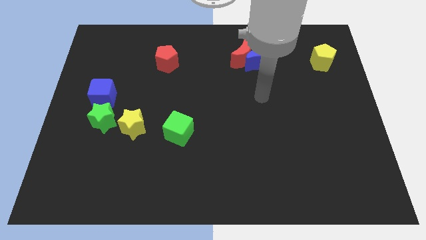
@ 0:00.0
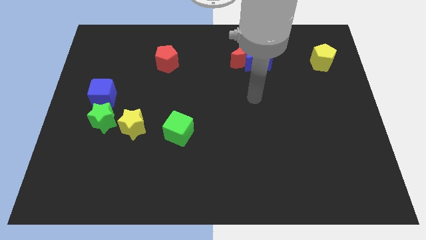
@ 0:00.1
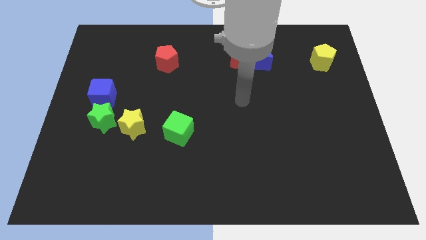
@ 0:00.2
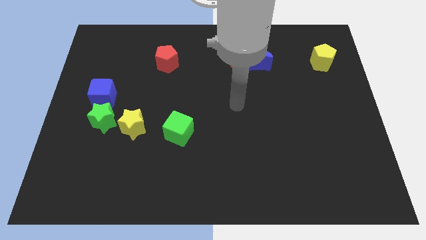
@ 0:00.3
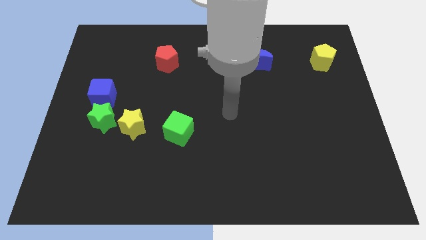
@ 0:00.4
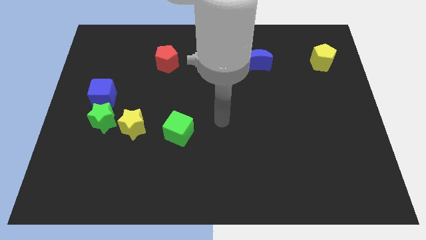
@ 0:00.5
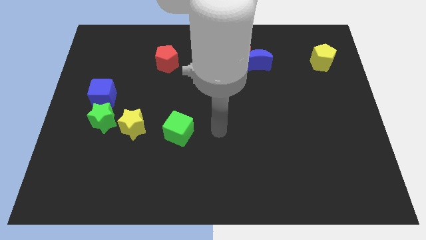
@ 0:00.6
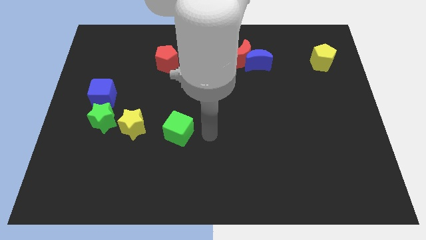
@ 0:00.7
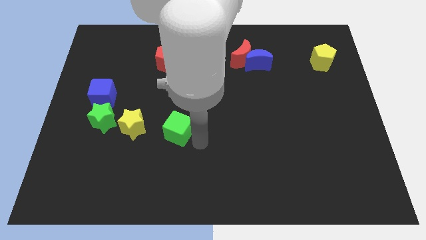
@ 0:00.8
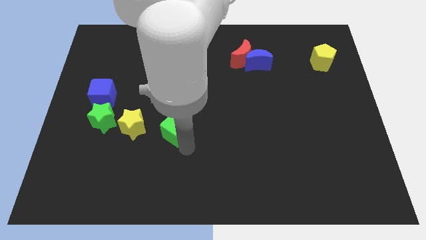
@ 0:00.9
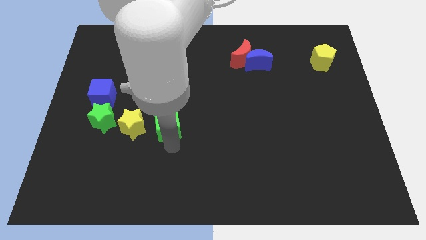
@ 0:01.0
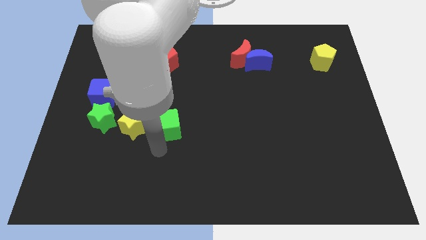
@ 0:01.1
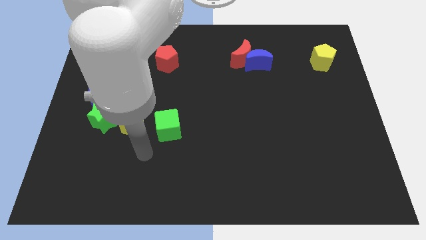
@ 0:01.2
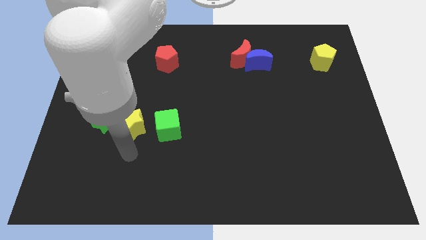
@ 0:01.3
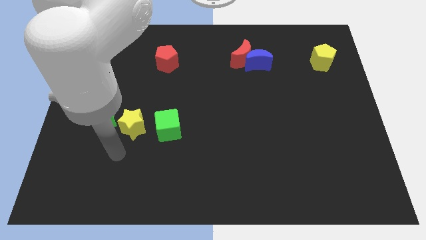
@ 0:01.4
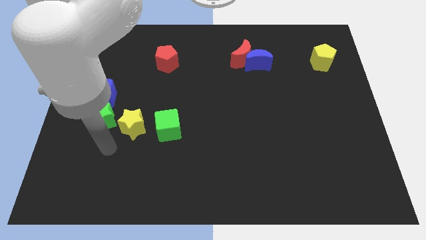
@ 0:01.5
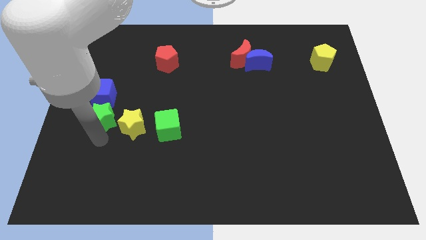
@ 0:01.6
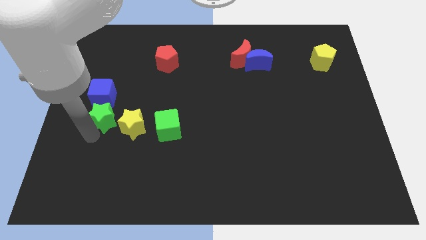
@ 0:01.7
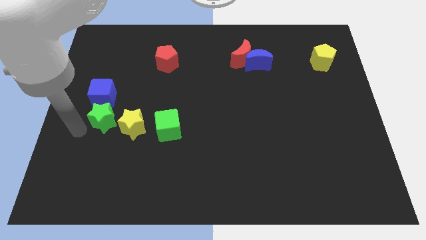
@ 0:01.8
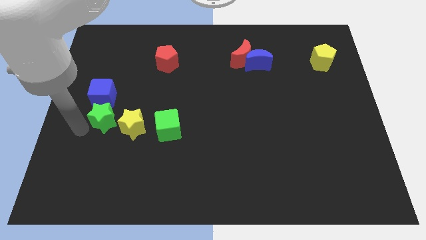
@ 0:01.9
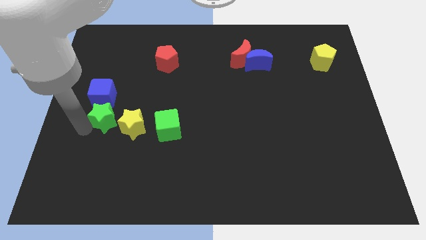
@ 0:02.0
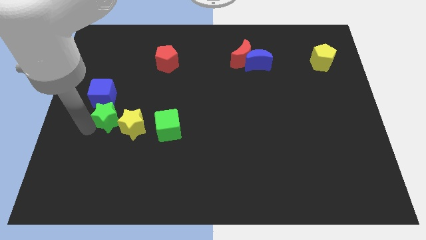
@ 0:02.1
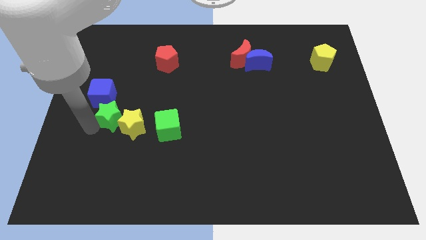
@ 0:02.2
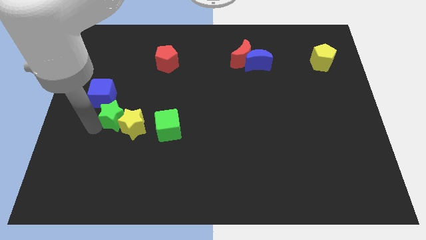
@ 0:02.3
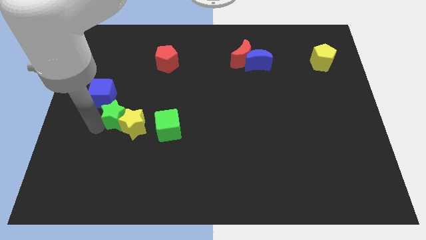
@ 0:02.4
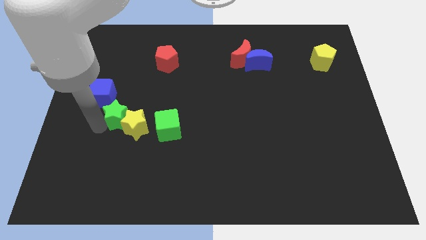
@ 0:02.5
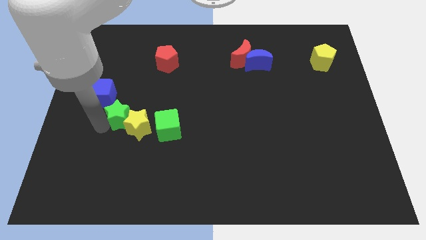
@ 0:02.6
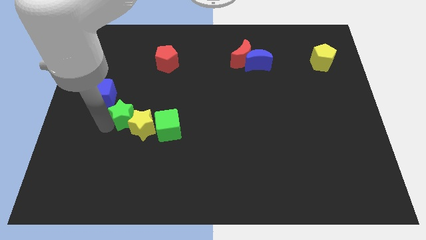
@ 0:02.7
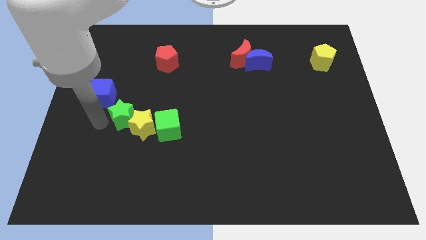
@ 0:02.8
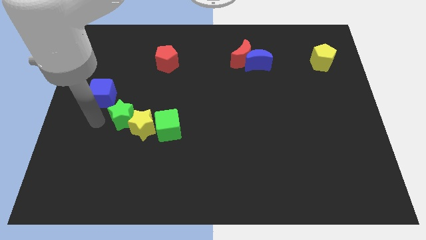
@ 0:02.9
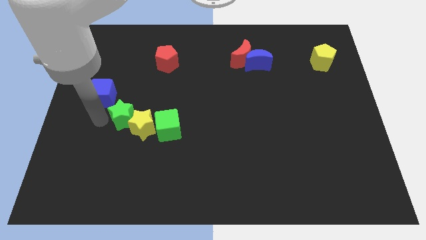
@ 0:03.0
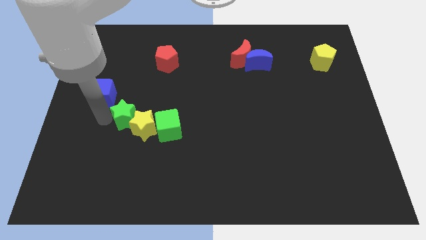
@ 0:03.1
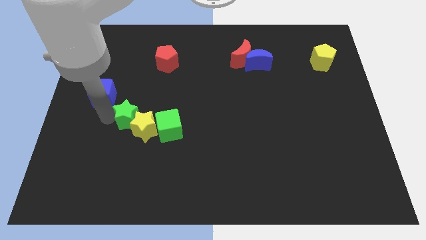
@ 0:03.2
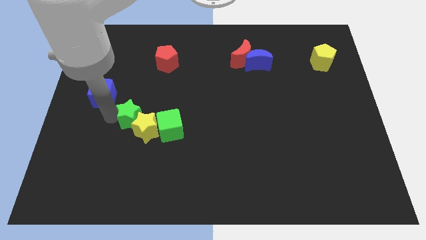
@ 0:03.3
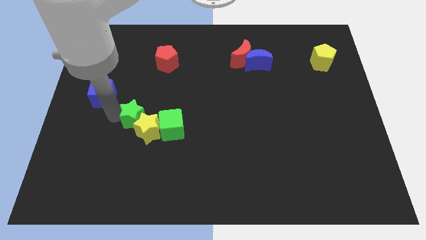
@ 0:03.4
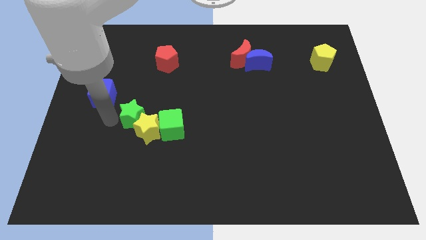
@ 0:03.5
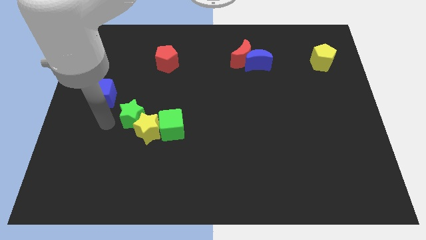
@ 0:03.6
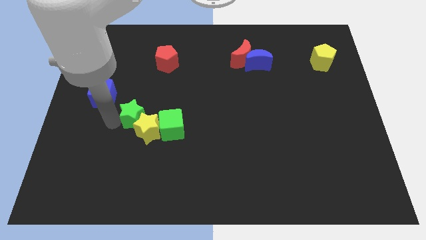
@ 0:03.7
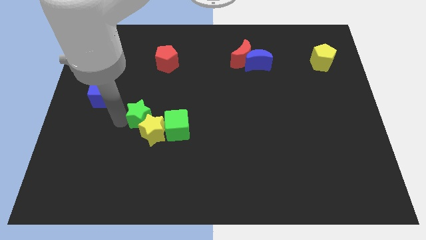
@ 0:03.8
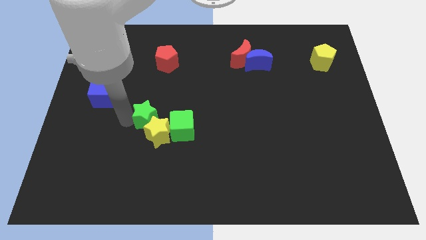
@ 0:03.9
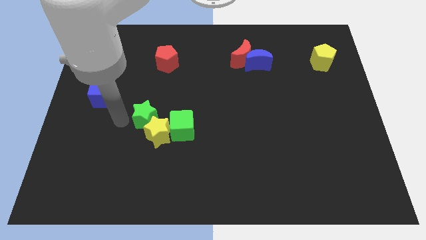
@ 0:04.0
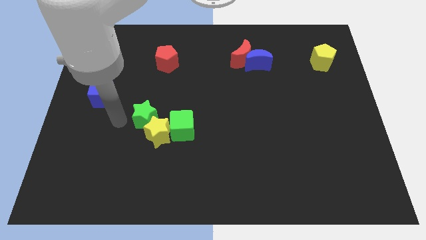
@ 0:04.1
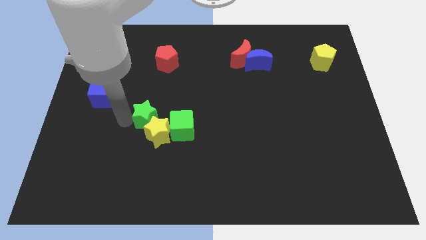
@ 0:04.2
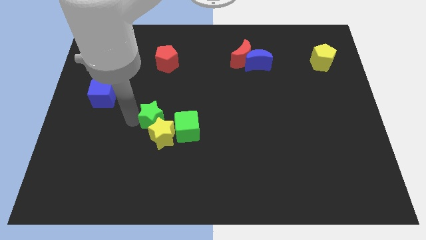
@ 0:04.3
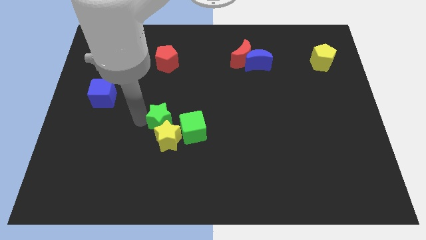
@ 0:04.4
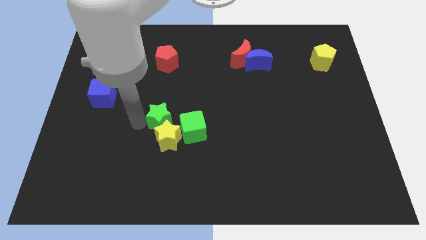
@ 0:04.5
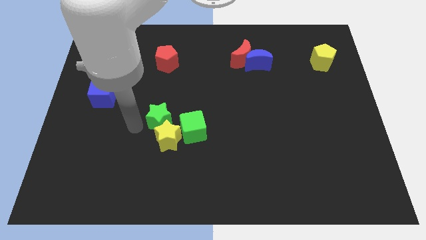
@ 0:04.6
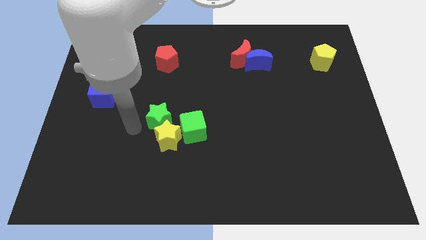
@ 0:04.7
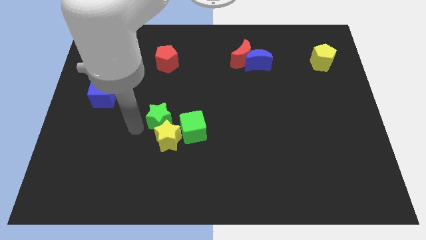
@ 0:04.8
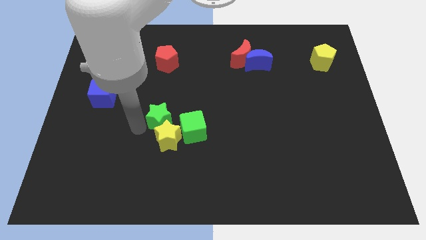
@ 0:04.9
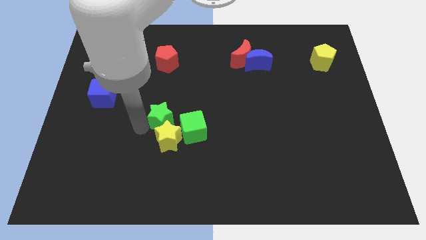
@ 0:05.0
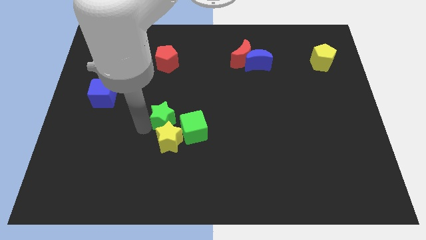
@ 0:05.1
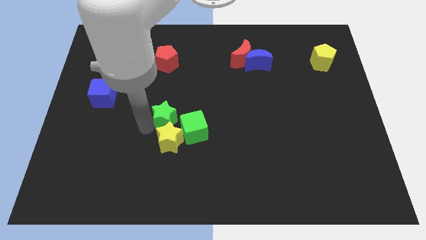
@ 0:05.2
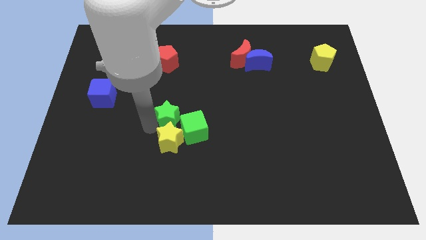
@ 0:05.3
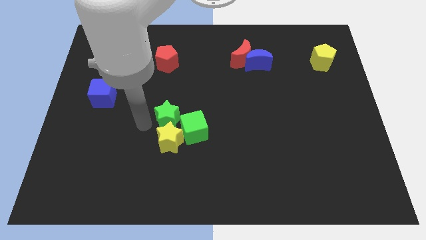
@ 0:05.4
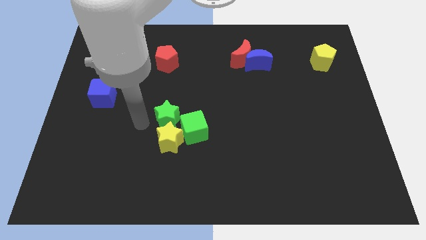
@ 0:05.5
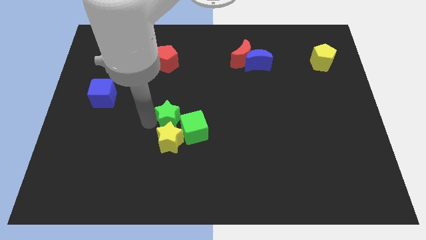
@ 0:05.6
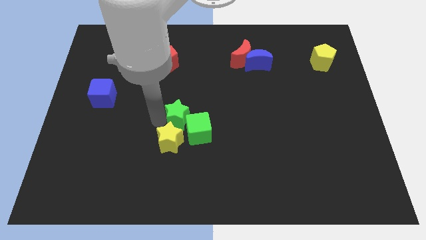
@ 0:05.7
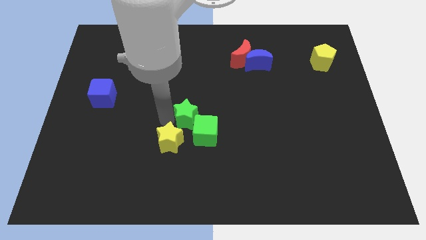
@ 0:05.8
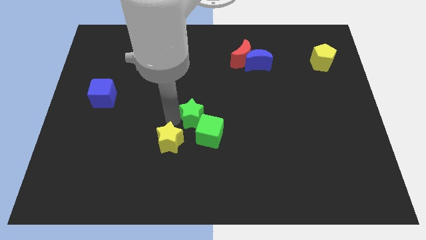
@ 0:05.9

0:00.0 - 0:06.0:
slide the green star right

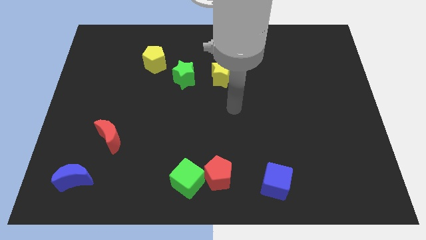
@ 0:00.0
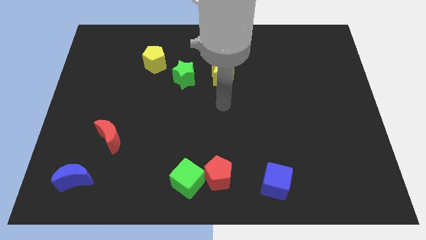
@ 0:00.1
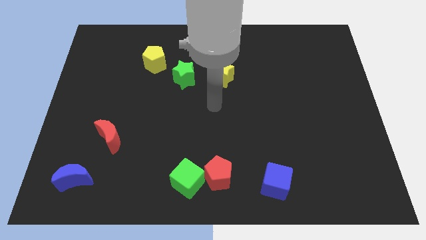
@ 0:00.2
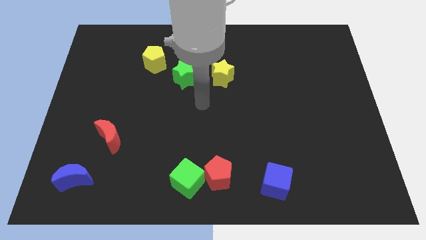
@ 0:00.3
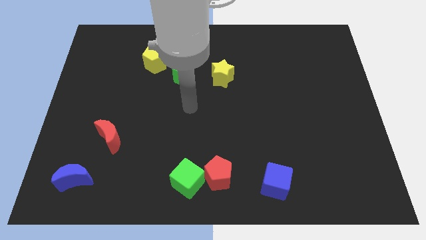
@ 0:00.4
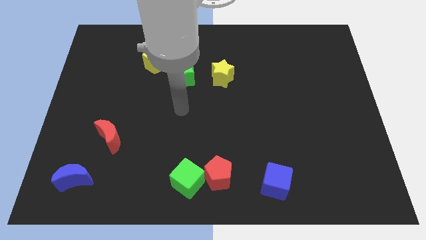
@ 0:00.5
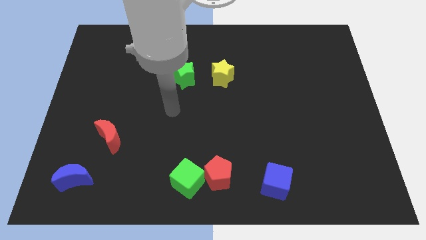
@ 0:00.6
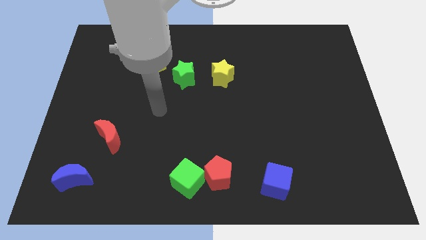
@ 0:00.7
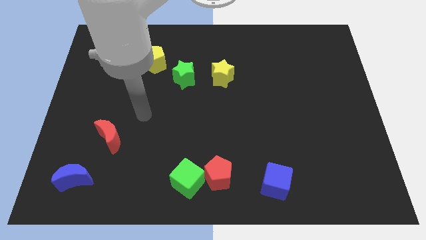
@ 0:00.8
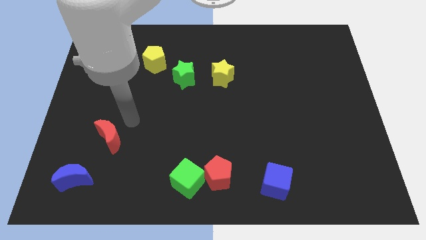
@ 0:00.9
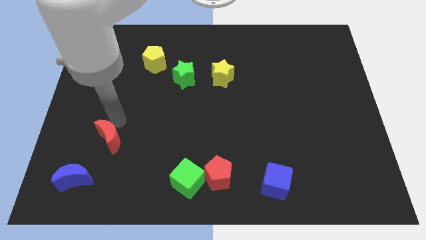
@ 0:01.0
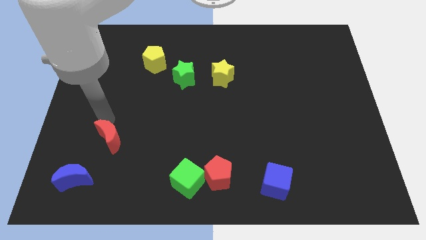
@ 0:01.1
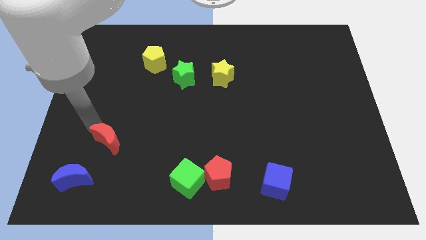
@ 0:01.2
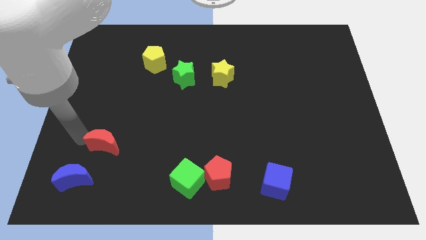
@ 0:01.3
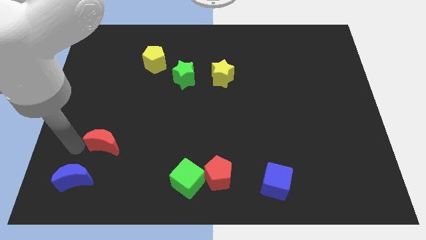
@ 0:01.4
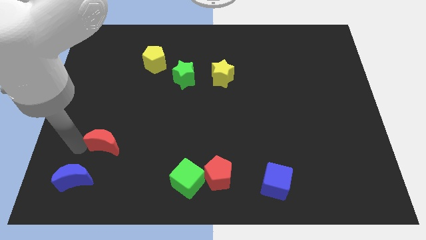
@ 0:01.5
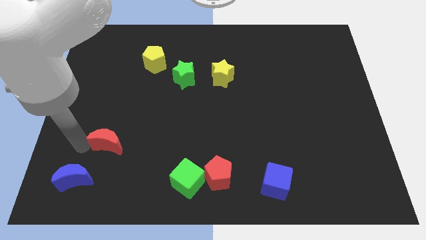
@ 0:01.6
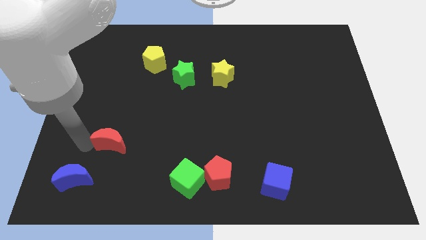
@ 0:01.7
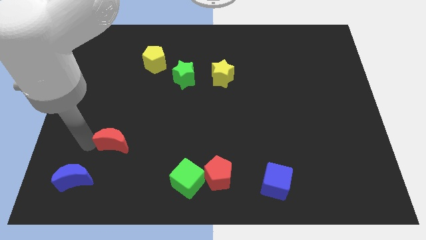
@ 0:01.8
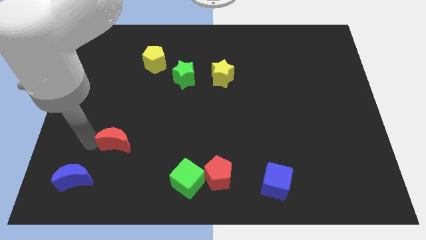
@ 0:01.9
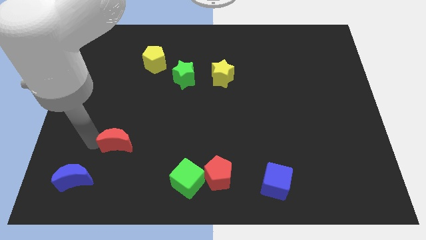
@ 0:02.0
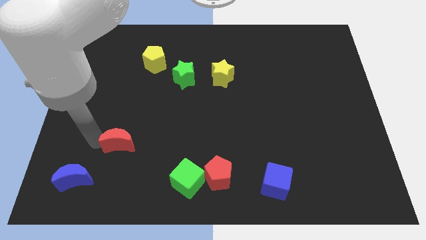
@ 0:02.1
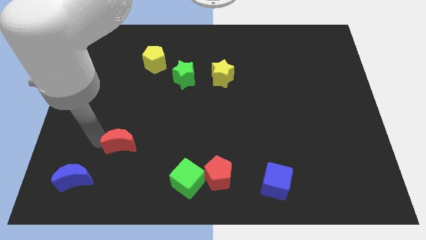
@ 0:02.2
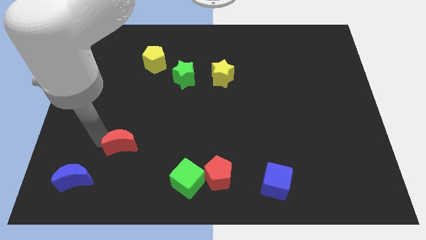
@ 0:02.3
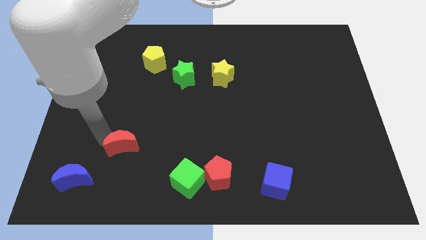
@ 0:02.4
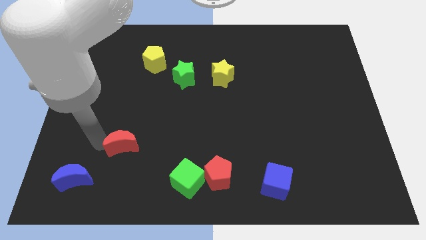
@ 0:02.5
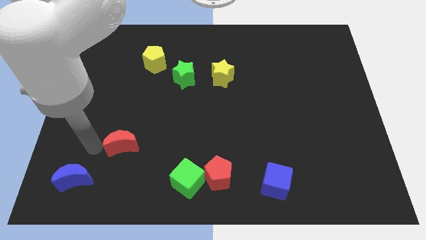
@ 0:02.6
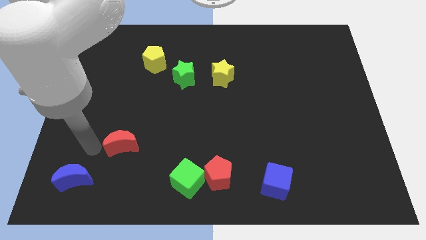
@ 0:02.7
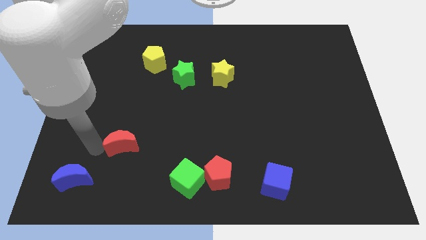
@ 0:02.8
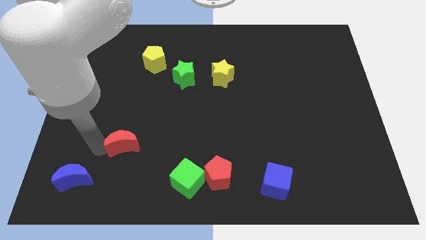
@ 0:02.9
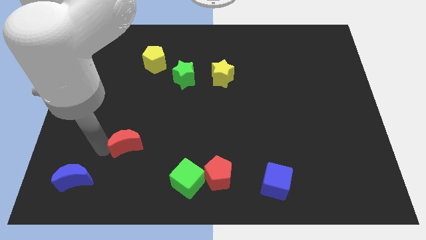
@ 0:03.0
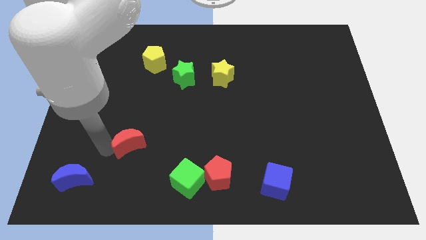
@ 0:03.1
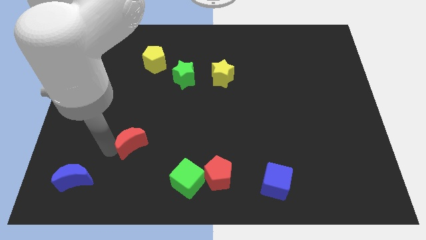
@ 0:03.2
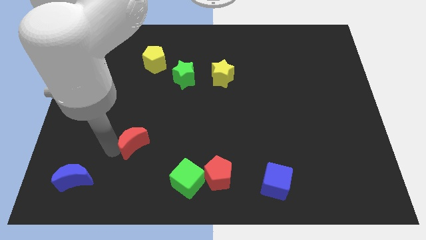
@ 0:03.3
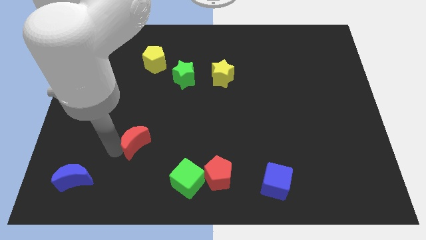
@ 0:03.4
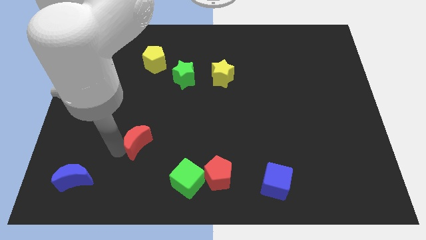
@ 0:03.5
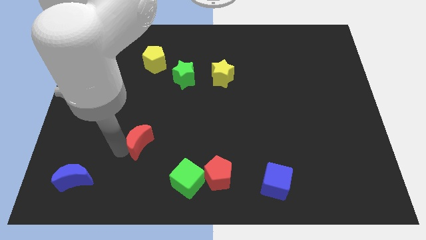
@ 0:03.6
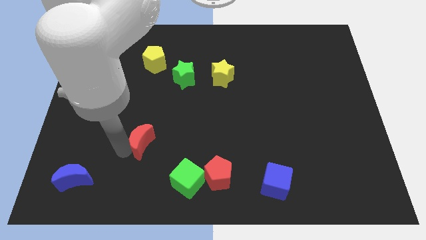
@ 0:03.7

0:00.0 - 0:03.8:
slightly push the red moon right
